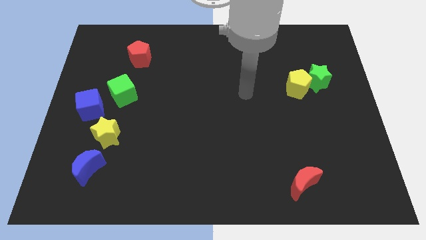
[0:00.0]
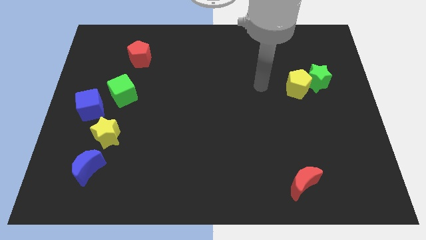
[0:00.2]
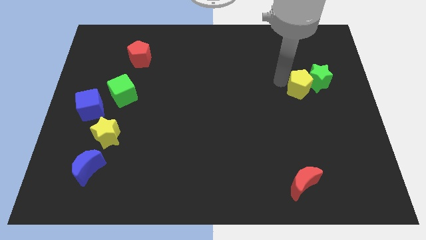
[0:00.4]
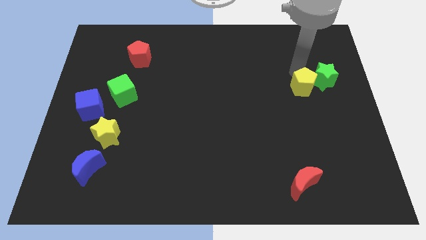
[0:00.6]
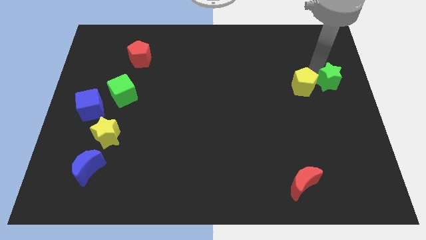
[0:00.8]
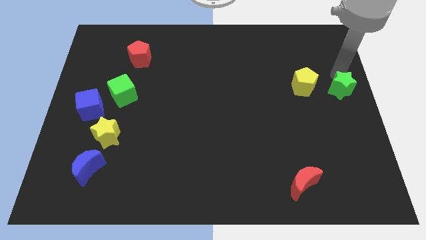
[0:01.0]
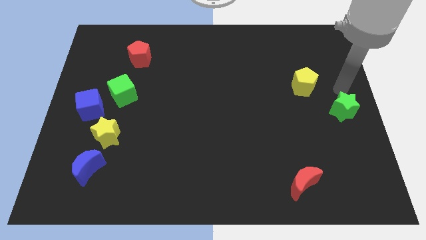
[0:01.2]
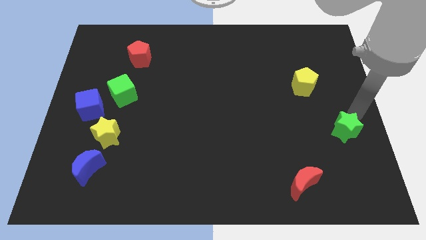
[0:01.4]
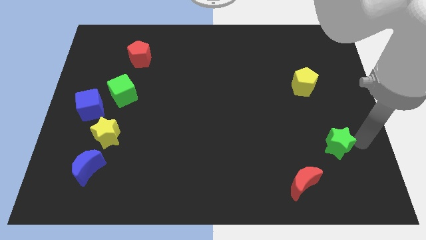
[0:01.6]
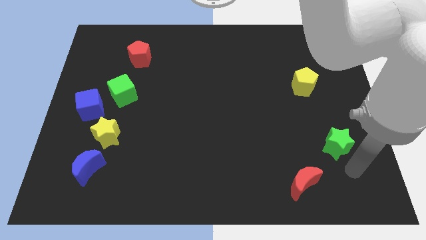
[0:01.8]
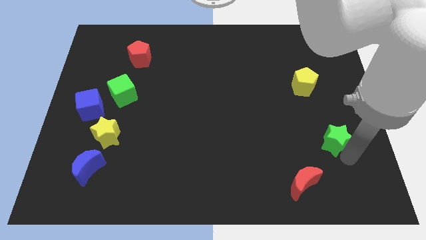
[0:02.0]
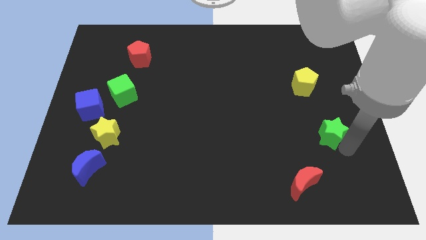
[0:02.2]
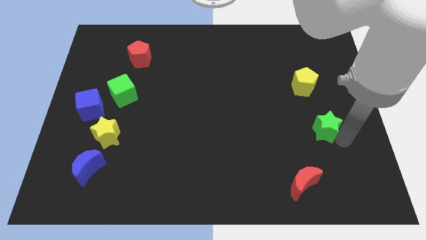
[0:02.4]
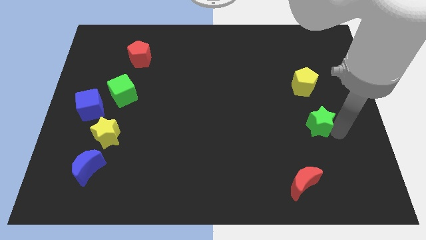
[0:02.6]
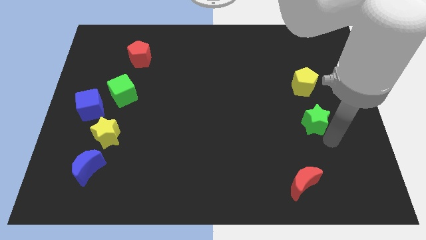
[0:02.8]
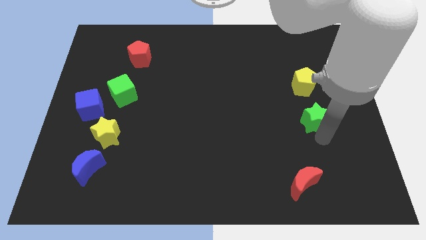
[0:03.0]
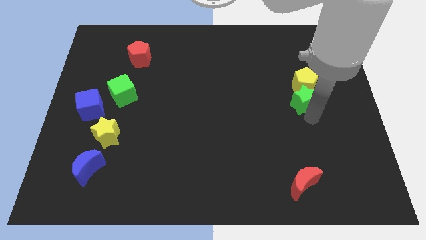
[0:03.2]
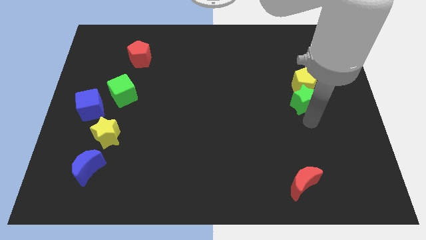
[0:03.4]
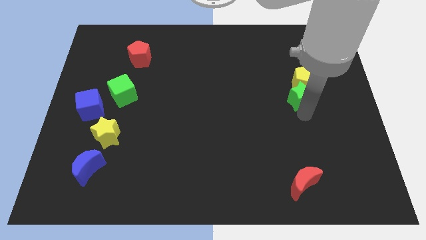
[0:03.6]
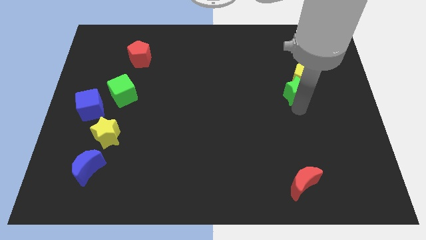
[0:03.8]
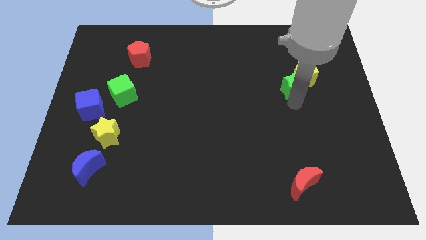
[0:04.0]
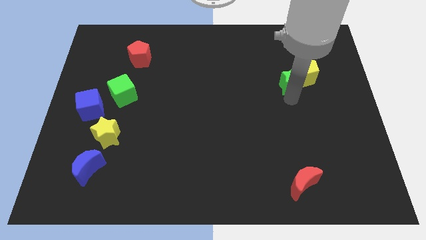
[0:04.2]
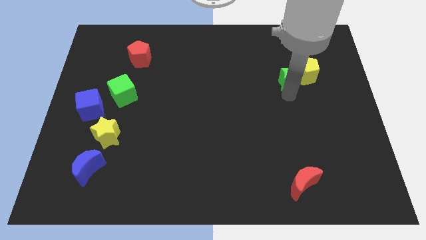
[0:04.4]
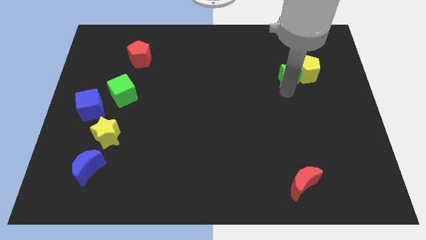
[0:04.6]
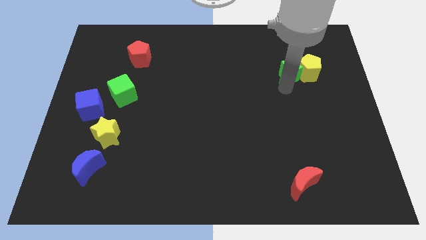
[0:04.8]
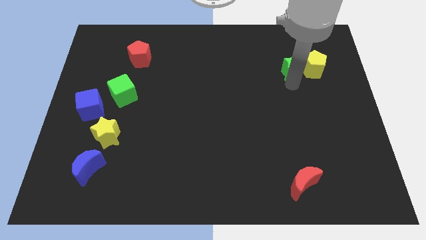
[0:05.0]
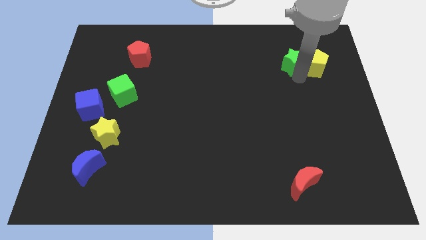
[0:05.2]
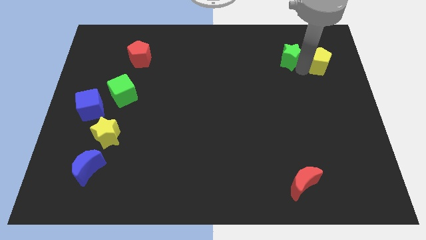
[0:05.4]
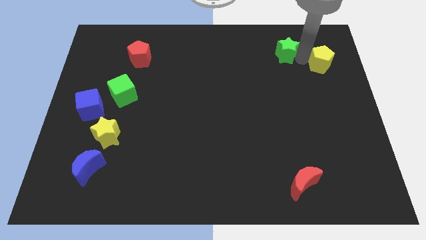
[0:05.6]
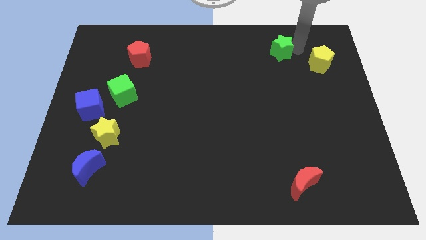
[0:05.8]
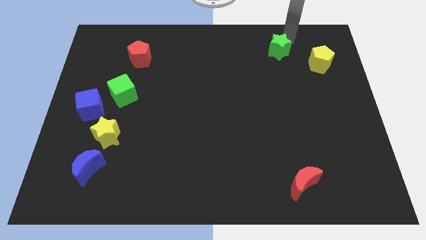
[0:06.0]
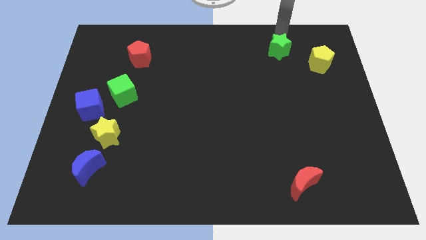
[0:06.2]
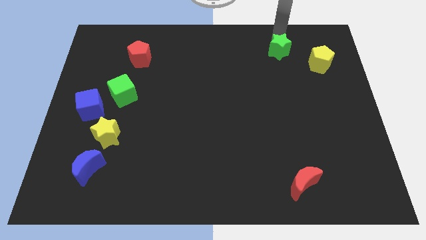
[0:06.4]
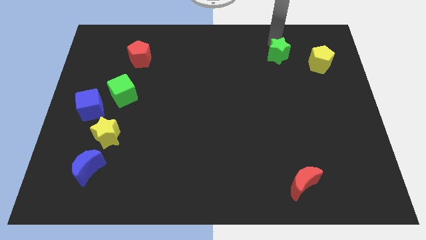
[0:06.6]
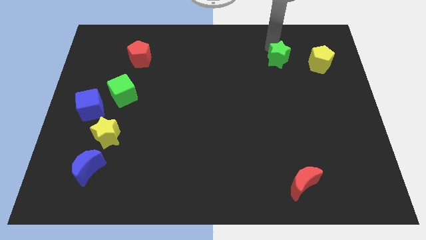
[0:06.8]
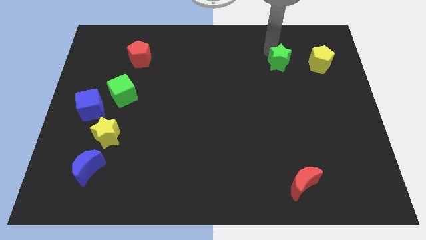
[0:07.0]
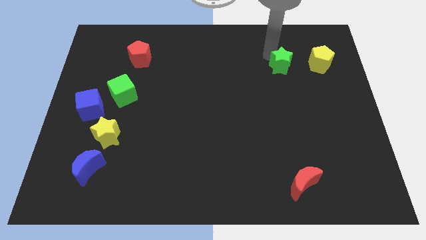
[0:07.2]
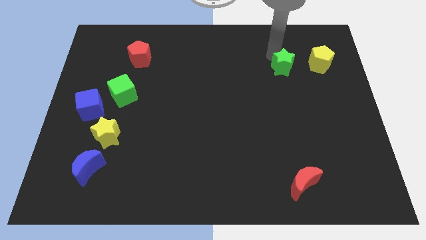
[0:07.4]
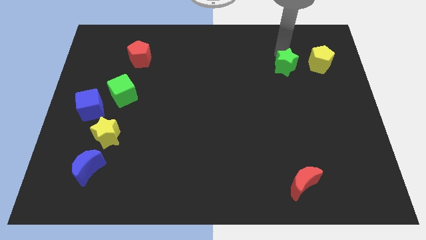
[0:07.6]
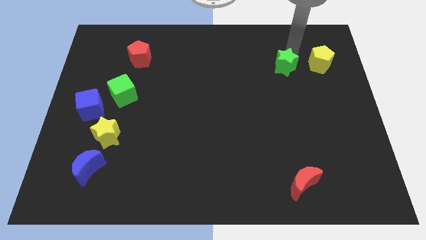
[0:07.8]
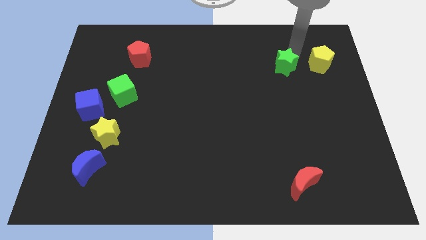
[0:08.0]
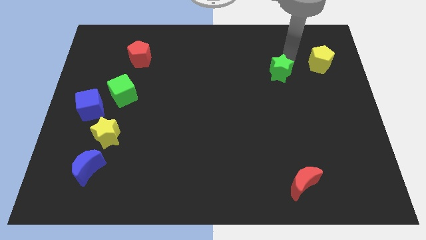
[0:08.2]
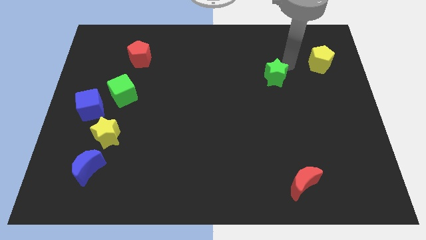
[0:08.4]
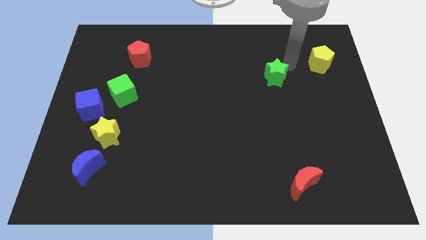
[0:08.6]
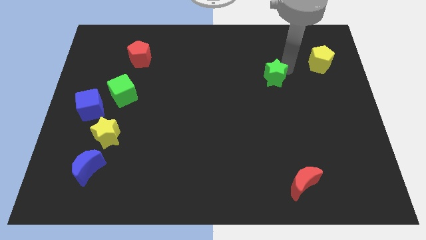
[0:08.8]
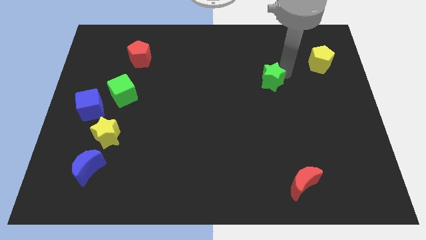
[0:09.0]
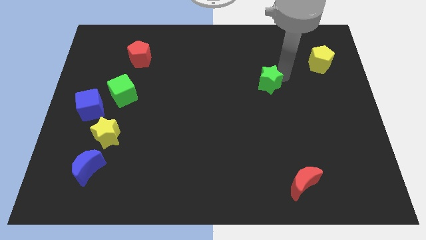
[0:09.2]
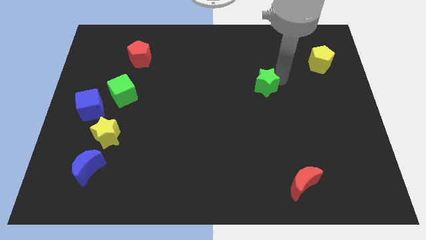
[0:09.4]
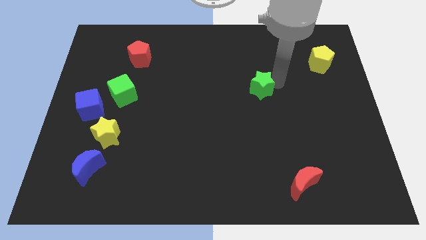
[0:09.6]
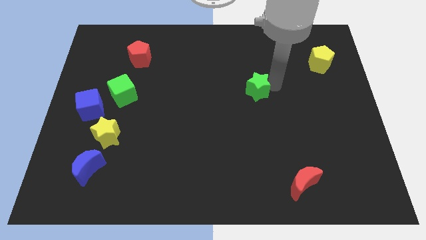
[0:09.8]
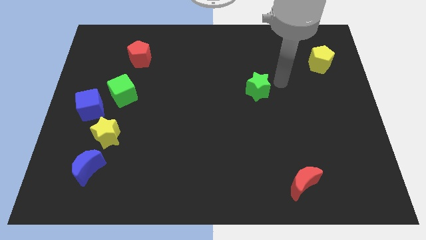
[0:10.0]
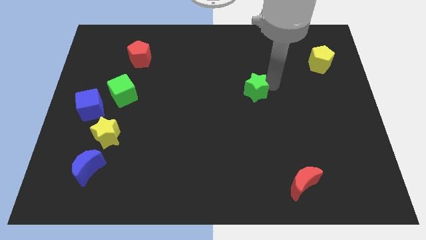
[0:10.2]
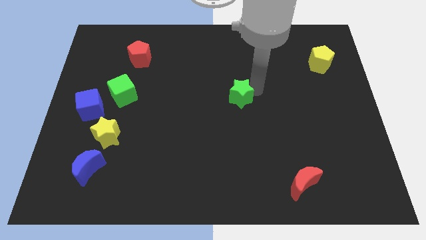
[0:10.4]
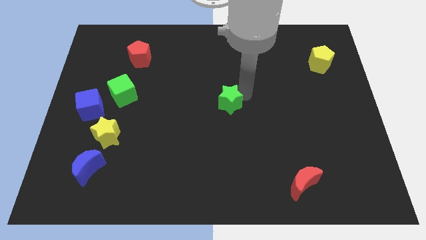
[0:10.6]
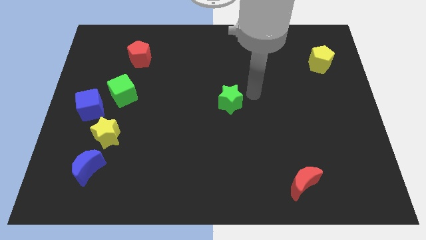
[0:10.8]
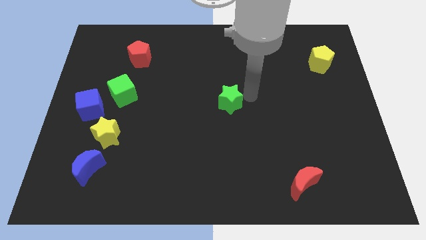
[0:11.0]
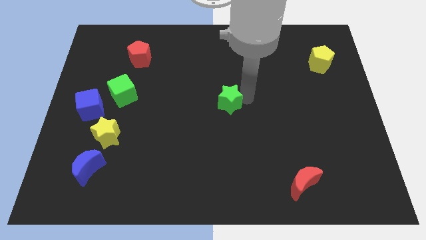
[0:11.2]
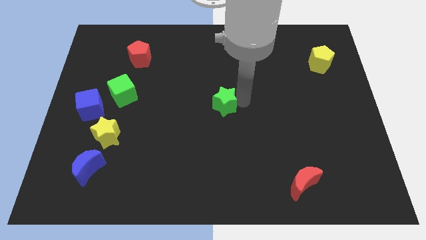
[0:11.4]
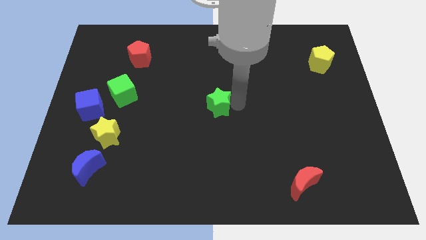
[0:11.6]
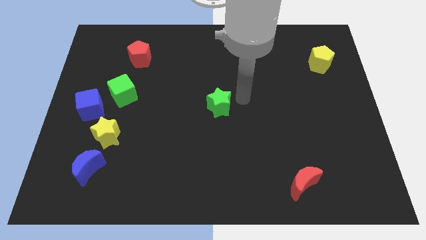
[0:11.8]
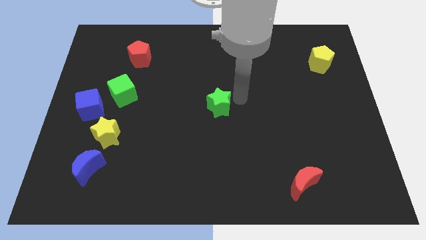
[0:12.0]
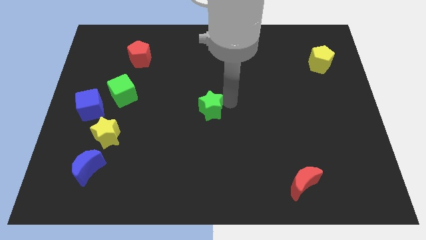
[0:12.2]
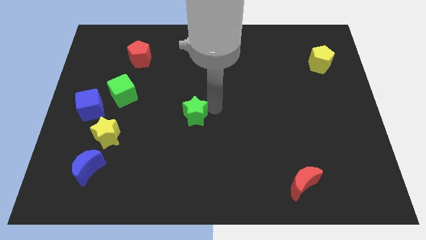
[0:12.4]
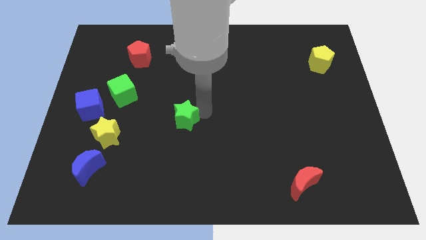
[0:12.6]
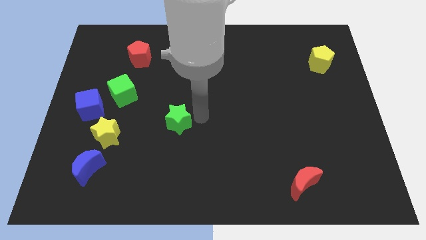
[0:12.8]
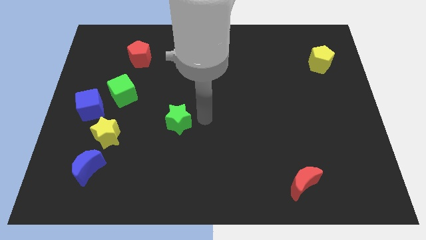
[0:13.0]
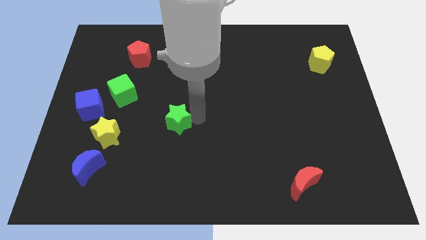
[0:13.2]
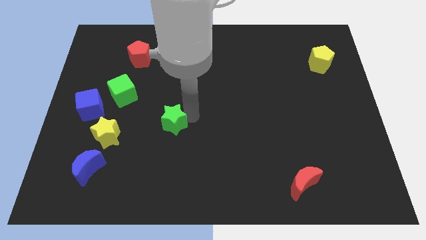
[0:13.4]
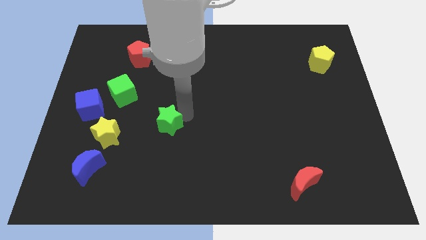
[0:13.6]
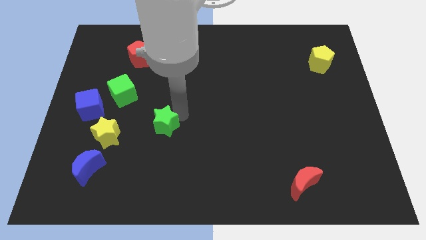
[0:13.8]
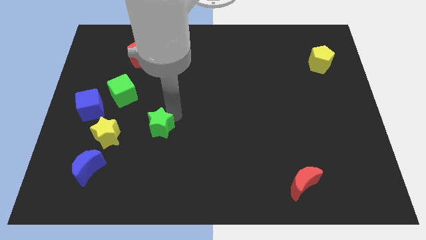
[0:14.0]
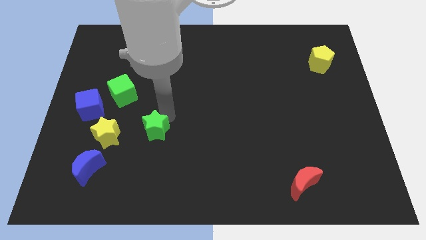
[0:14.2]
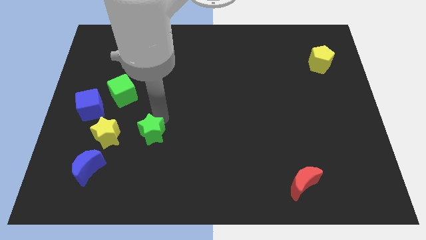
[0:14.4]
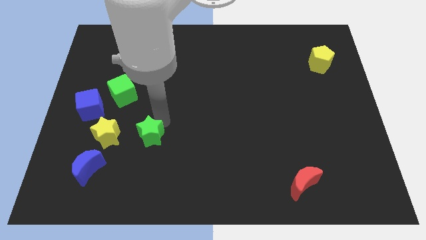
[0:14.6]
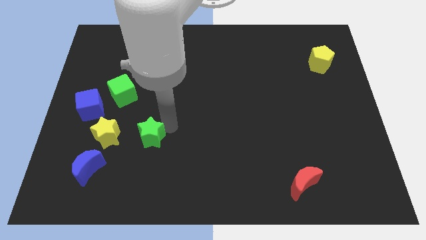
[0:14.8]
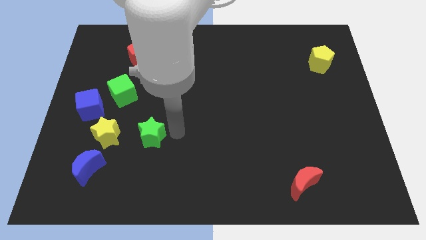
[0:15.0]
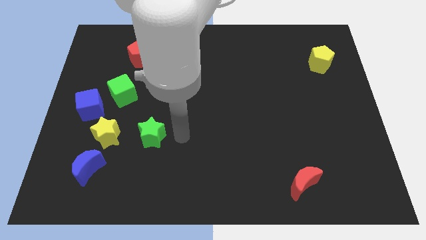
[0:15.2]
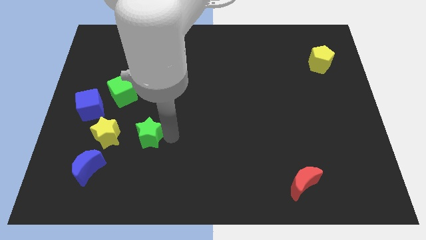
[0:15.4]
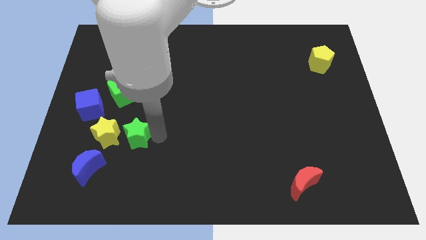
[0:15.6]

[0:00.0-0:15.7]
move the green star to the top right side of the blue moon
